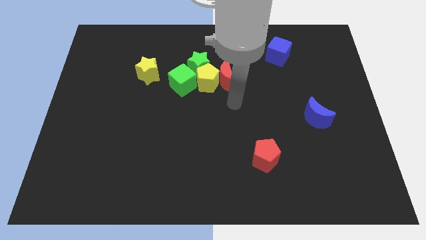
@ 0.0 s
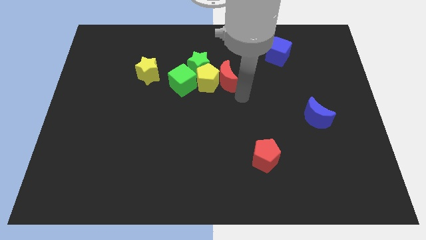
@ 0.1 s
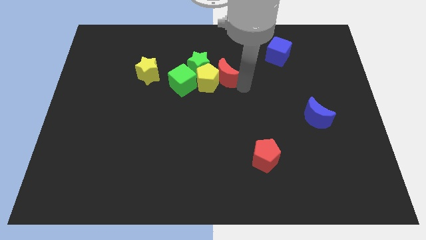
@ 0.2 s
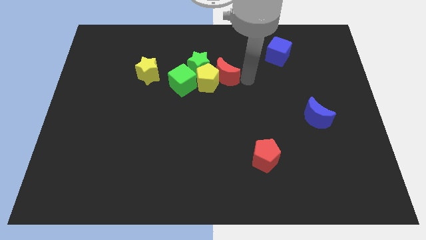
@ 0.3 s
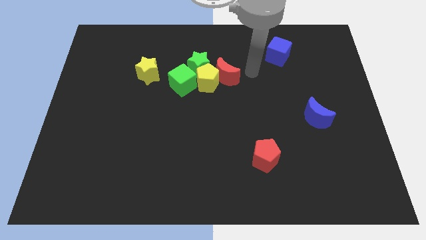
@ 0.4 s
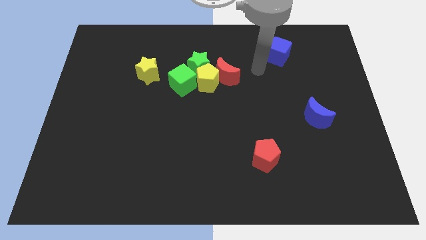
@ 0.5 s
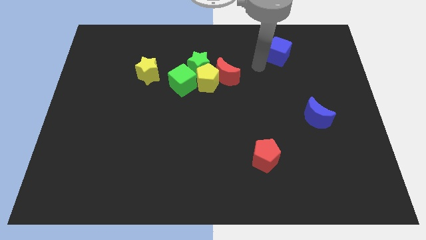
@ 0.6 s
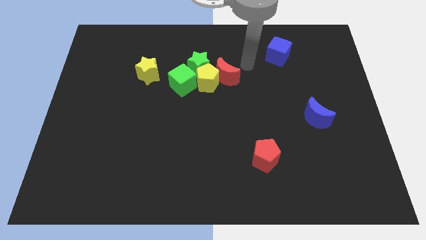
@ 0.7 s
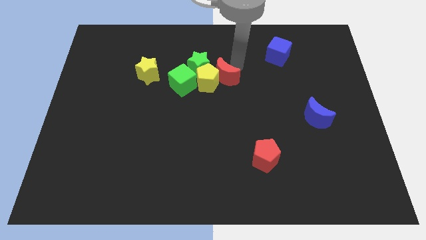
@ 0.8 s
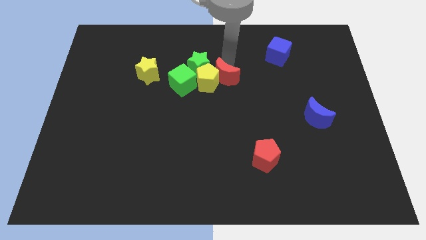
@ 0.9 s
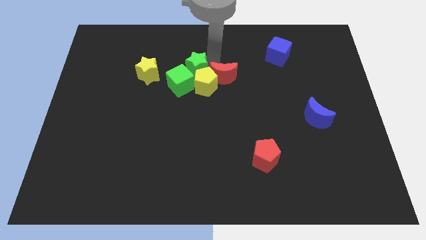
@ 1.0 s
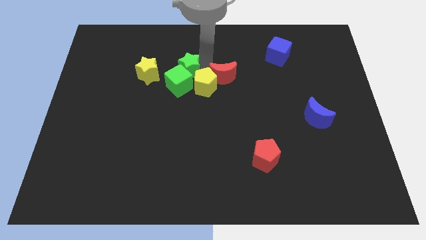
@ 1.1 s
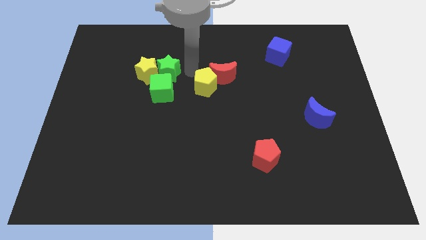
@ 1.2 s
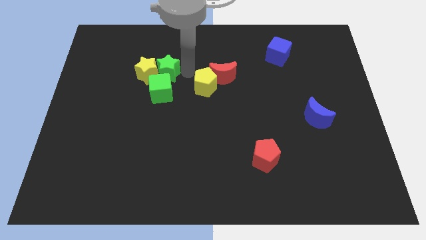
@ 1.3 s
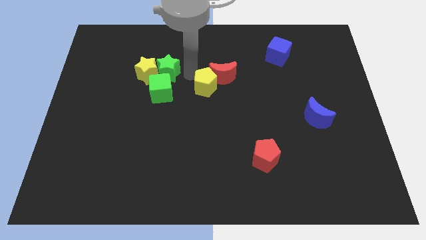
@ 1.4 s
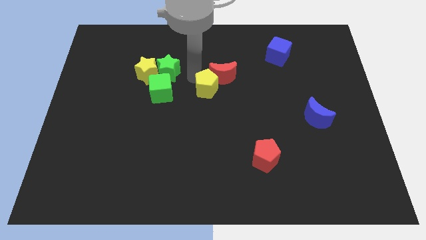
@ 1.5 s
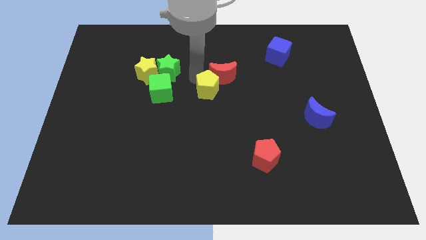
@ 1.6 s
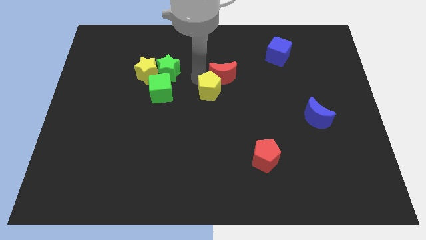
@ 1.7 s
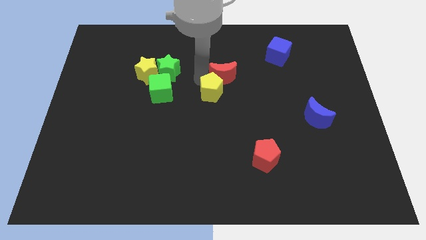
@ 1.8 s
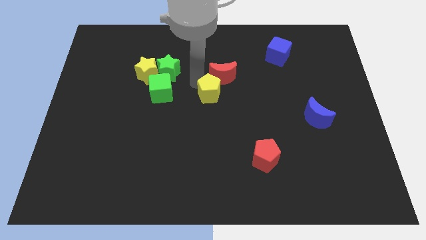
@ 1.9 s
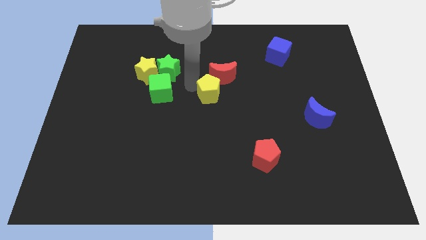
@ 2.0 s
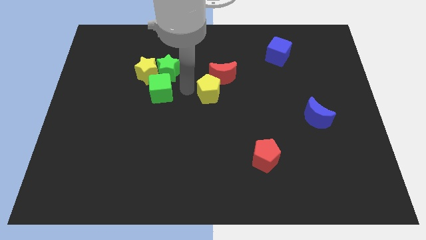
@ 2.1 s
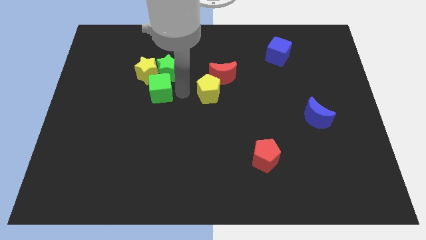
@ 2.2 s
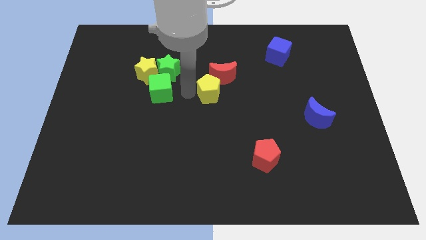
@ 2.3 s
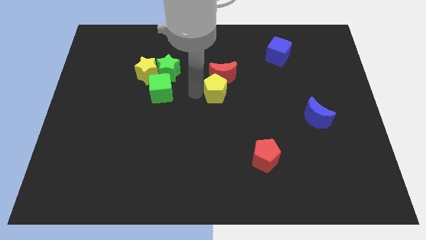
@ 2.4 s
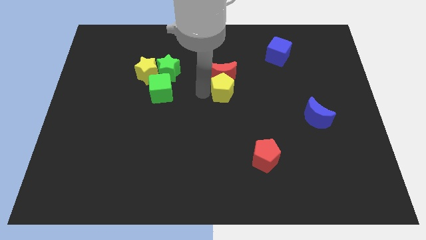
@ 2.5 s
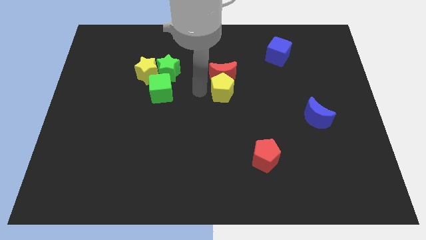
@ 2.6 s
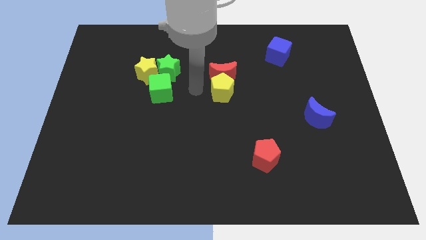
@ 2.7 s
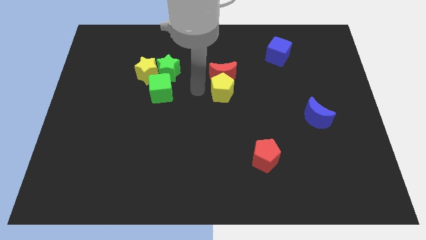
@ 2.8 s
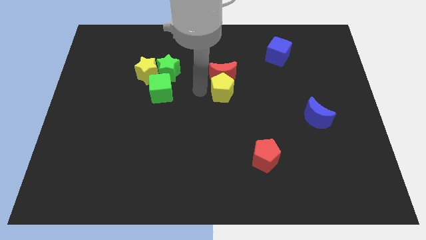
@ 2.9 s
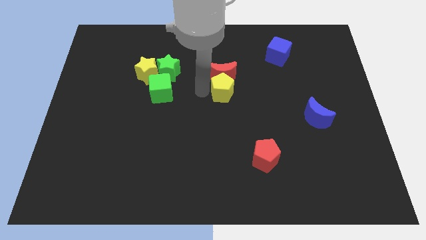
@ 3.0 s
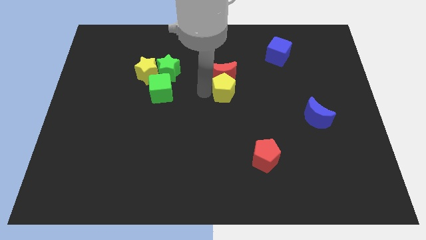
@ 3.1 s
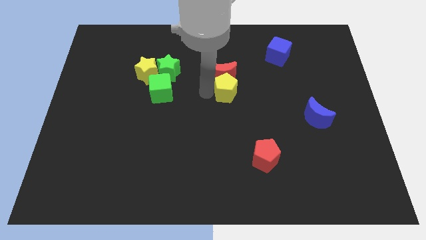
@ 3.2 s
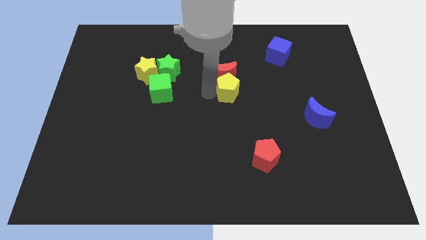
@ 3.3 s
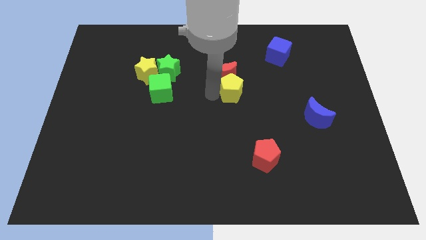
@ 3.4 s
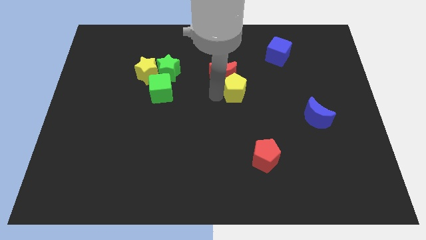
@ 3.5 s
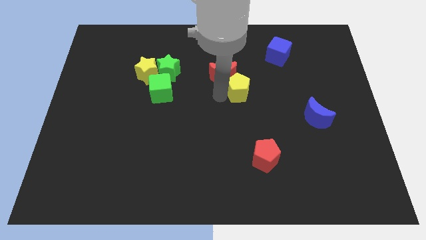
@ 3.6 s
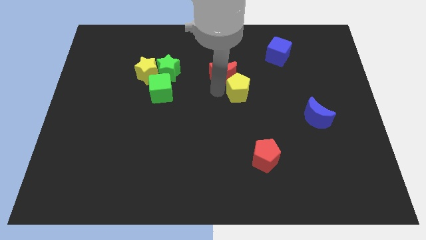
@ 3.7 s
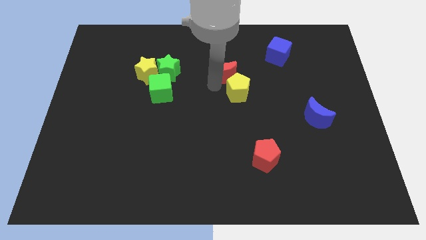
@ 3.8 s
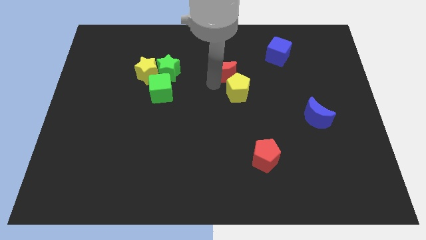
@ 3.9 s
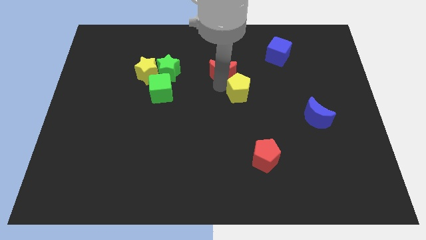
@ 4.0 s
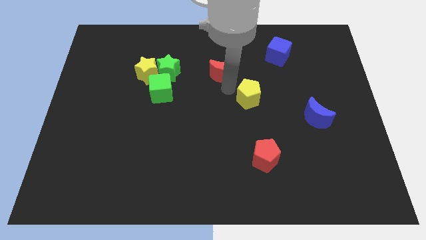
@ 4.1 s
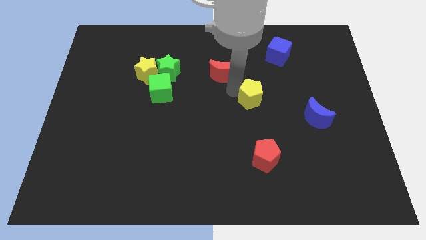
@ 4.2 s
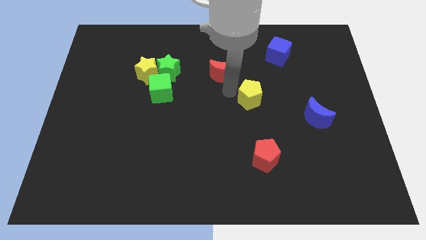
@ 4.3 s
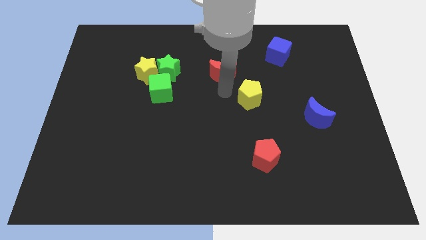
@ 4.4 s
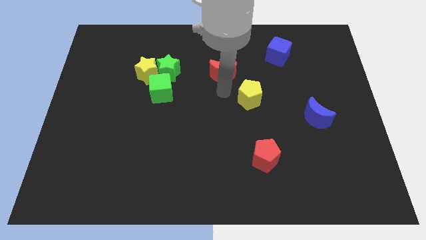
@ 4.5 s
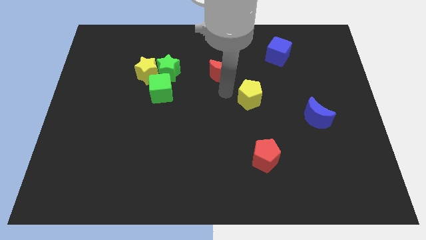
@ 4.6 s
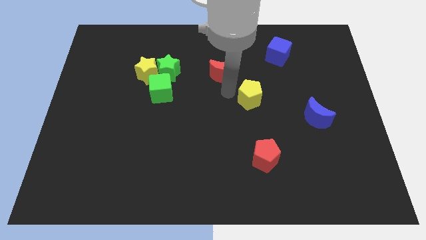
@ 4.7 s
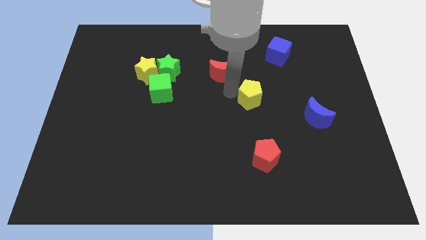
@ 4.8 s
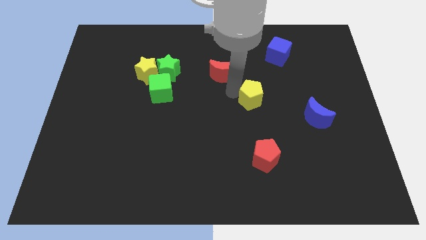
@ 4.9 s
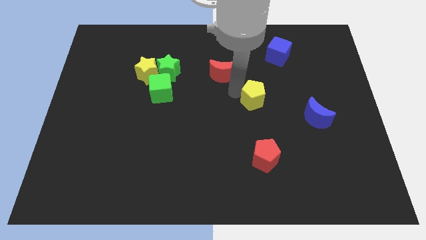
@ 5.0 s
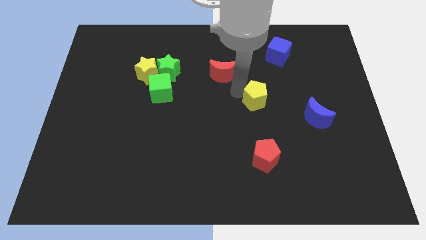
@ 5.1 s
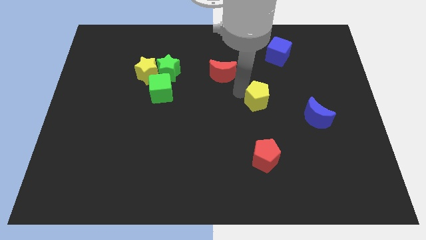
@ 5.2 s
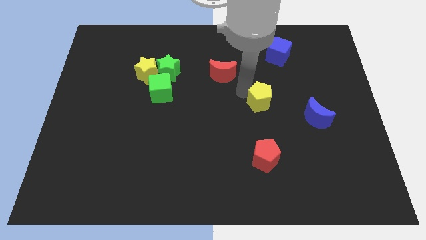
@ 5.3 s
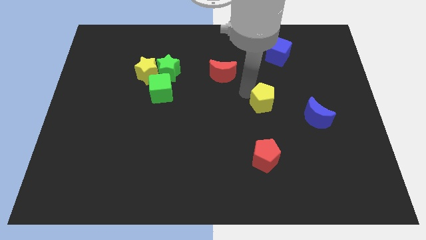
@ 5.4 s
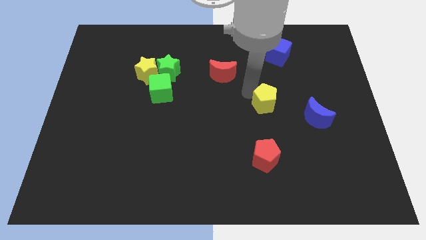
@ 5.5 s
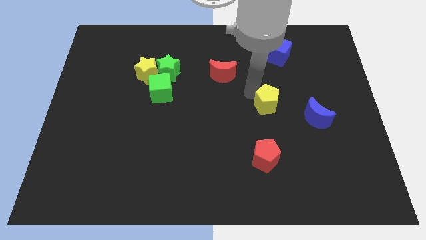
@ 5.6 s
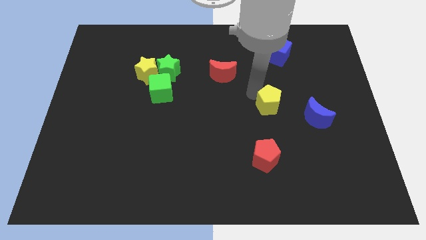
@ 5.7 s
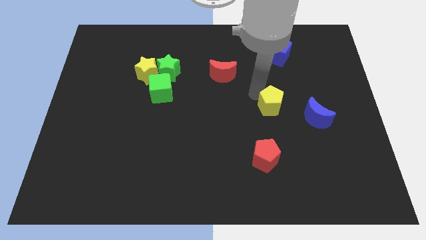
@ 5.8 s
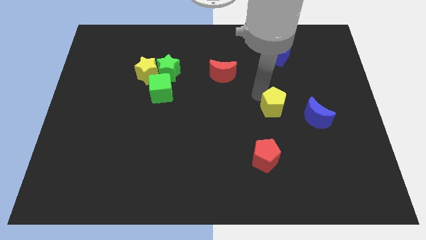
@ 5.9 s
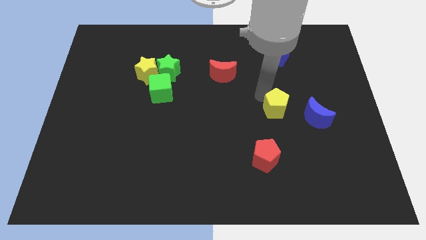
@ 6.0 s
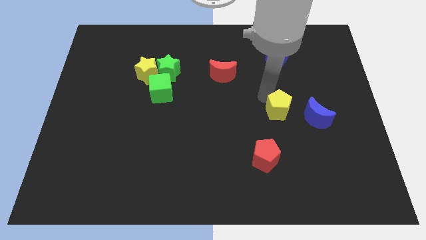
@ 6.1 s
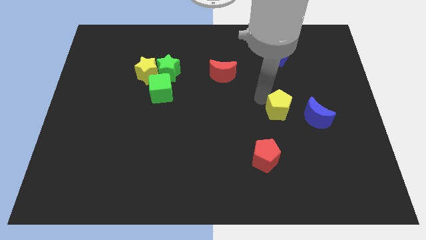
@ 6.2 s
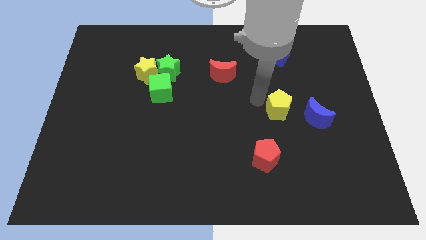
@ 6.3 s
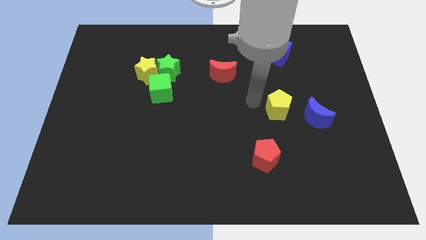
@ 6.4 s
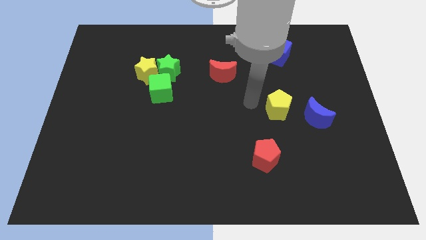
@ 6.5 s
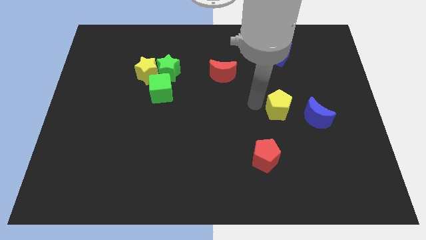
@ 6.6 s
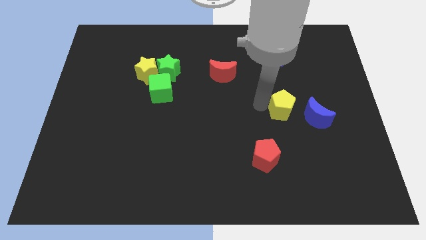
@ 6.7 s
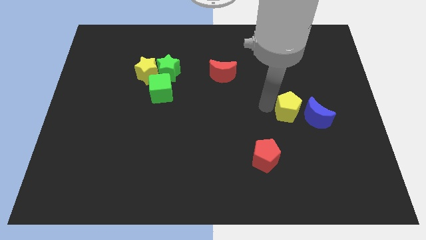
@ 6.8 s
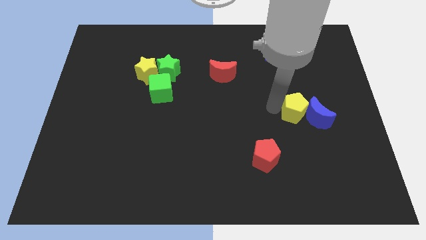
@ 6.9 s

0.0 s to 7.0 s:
move the yellow pentagon to the blue moon
